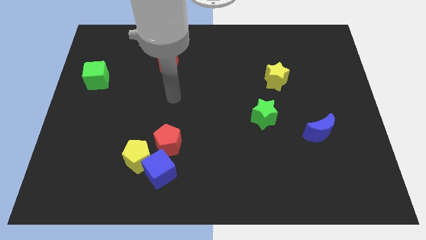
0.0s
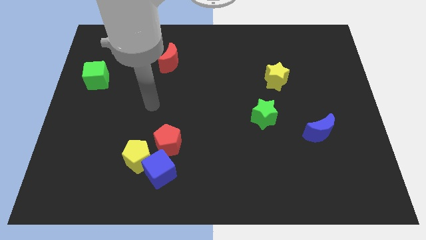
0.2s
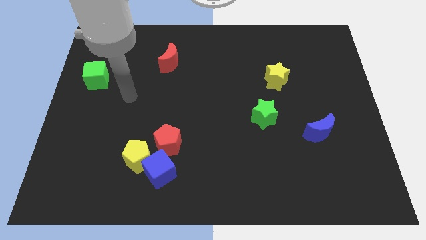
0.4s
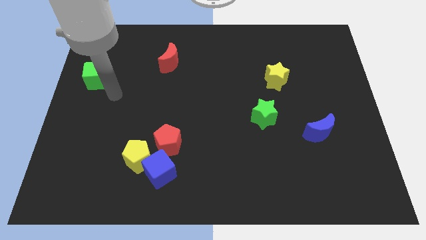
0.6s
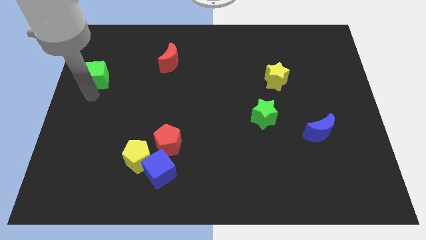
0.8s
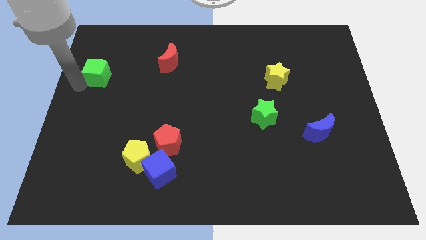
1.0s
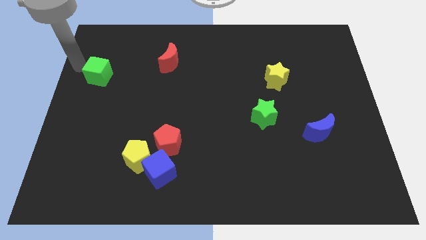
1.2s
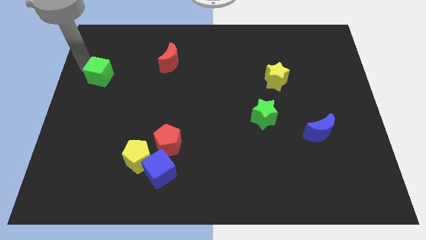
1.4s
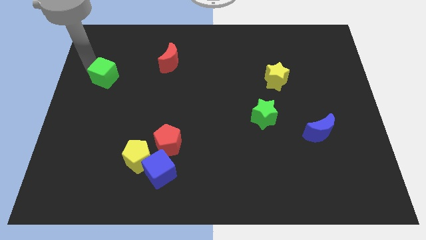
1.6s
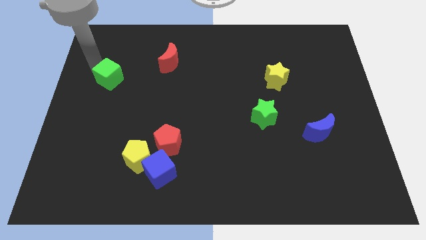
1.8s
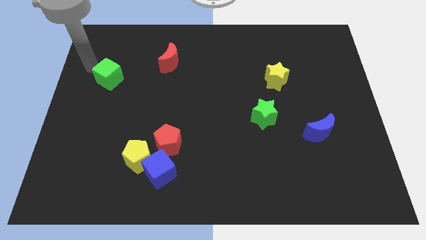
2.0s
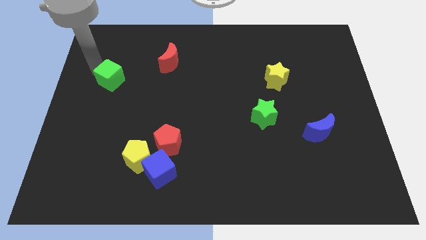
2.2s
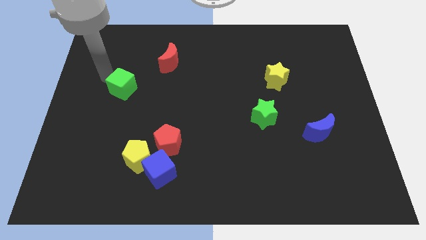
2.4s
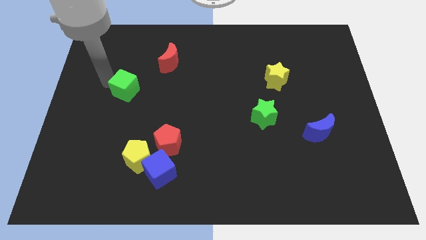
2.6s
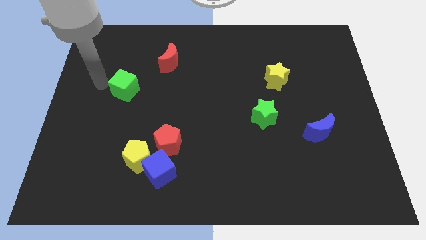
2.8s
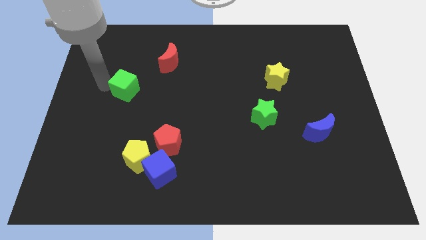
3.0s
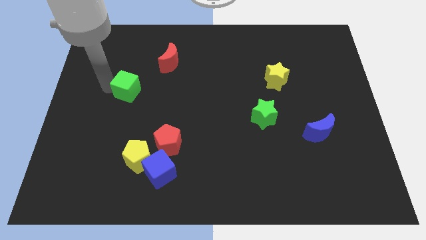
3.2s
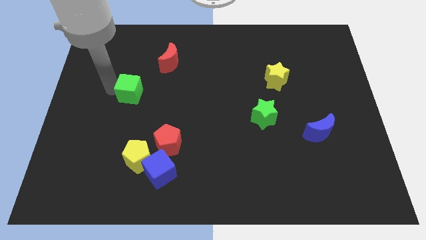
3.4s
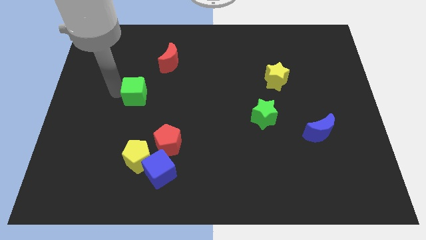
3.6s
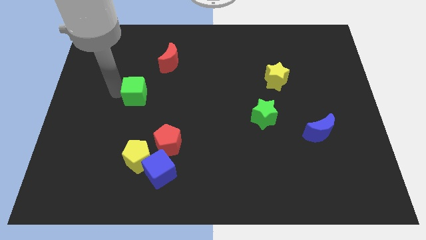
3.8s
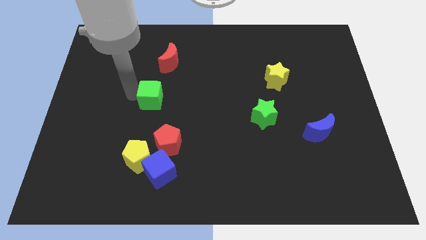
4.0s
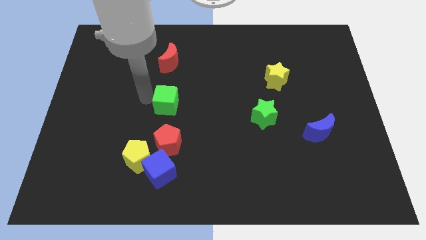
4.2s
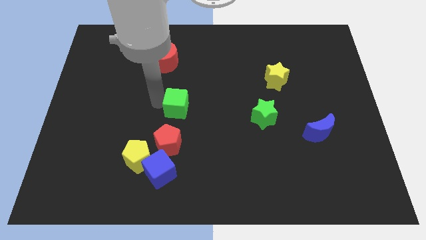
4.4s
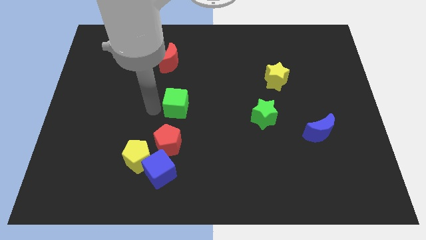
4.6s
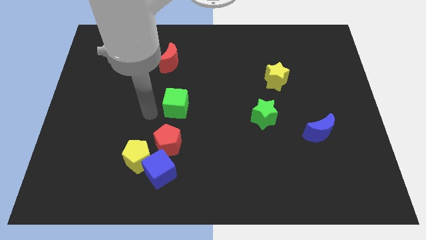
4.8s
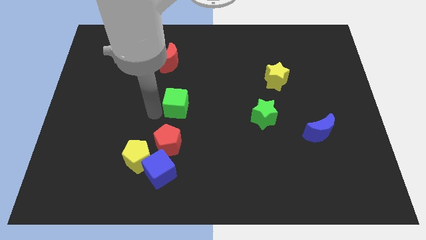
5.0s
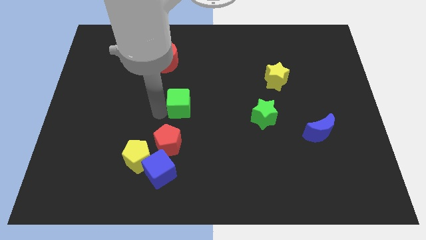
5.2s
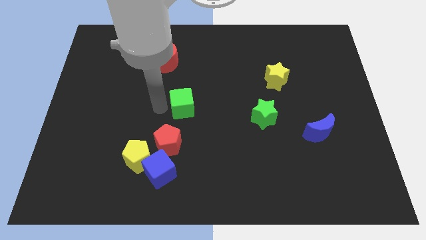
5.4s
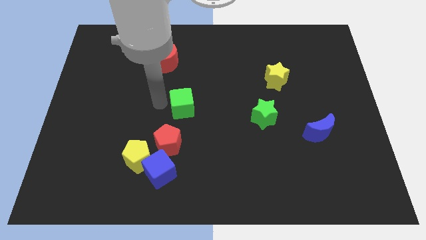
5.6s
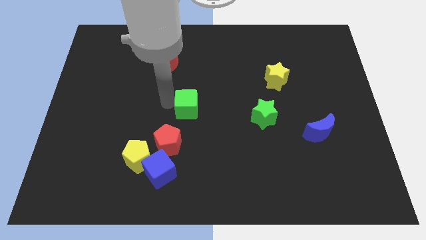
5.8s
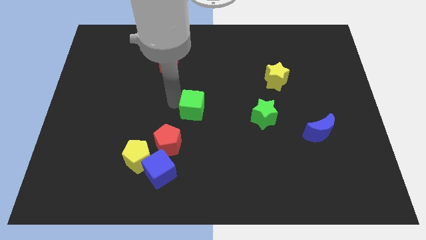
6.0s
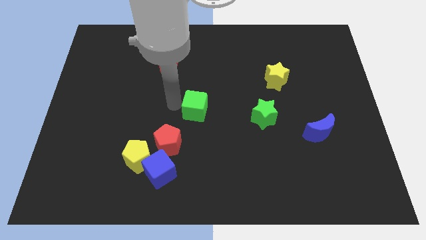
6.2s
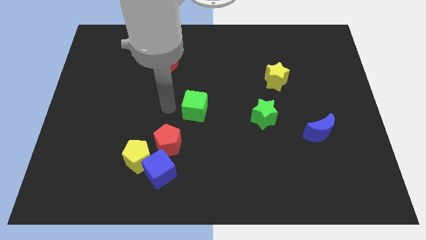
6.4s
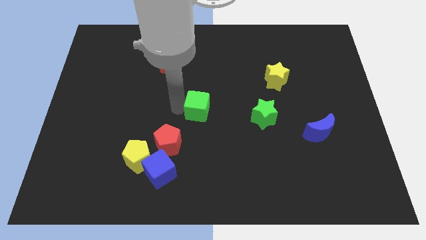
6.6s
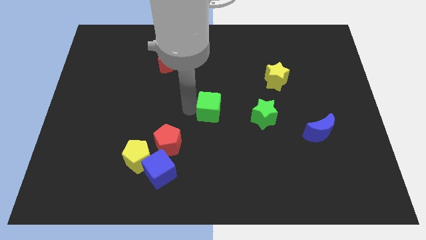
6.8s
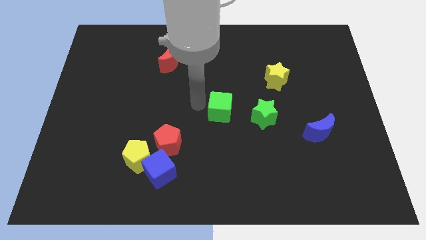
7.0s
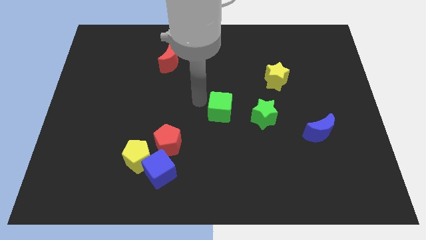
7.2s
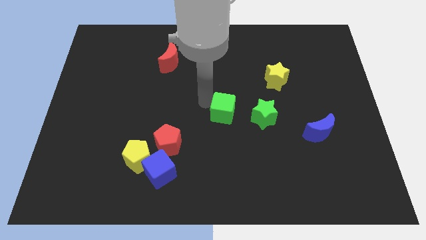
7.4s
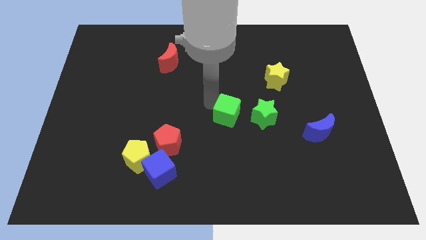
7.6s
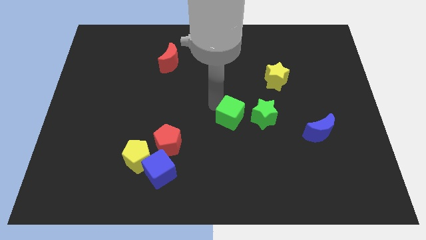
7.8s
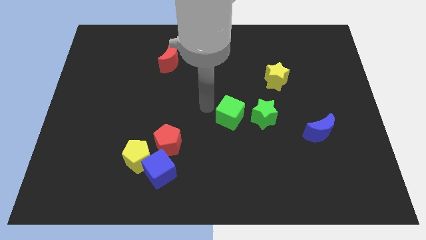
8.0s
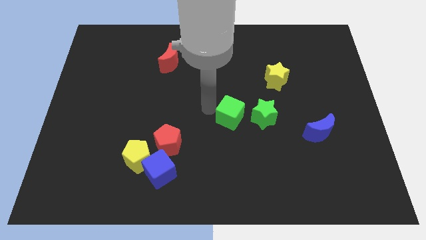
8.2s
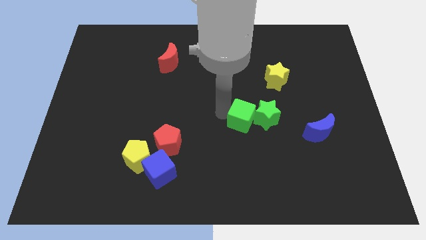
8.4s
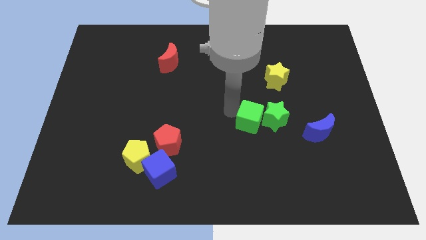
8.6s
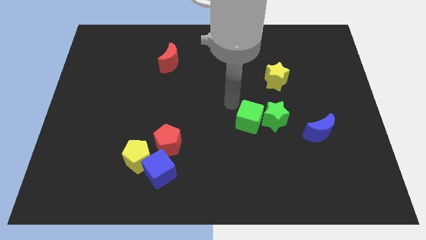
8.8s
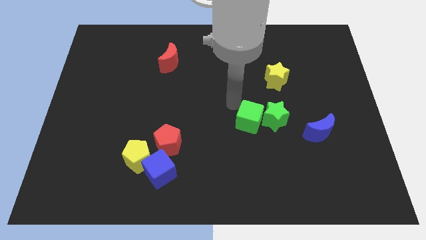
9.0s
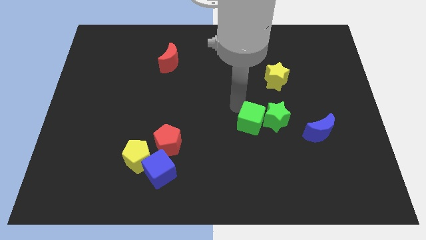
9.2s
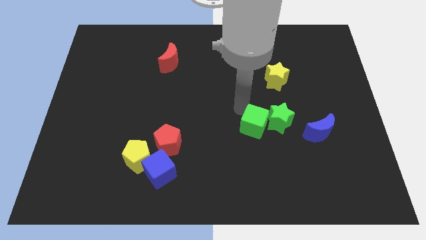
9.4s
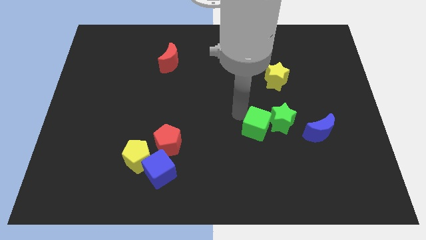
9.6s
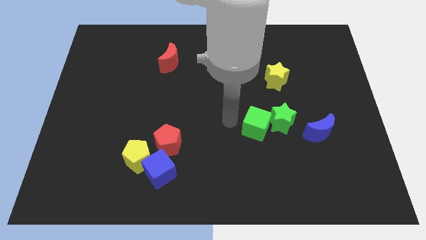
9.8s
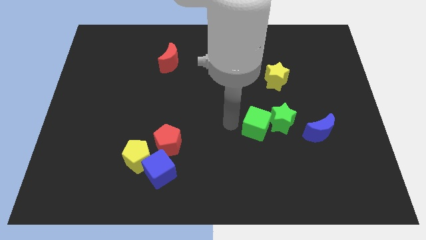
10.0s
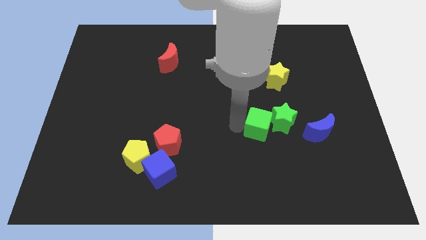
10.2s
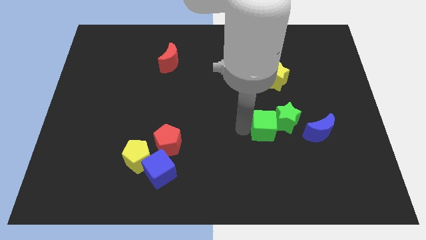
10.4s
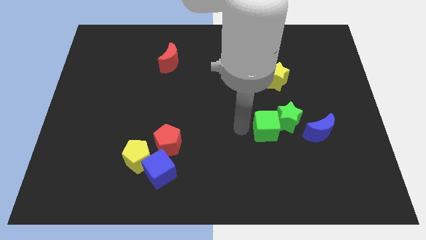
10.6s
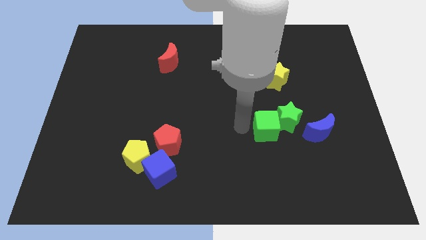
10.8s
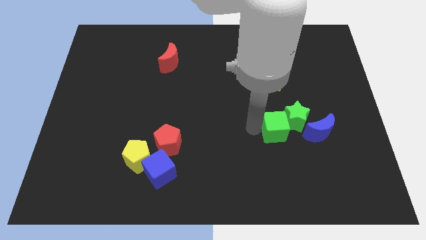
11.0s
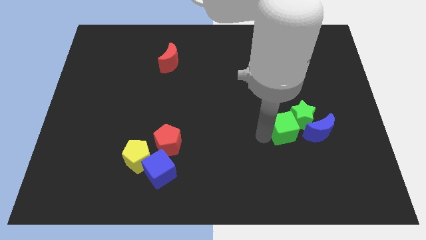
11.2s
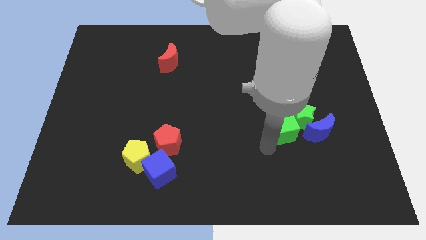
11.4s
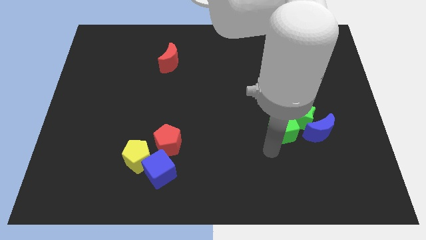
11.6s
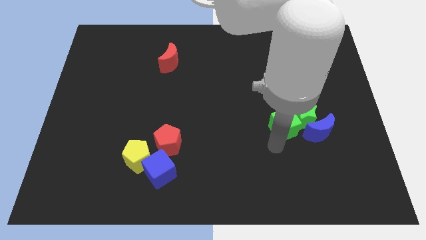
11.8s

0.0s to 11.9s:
slide the green cube diagonally up and to the left of the blue moon

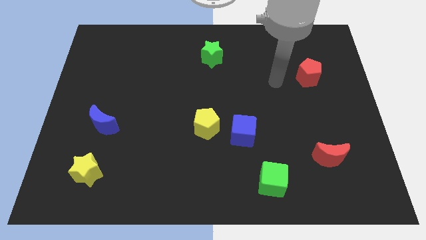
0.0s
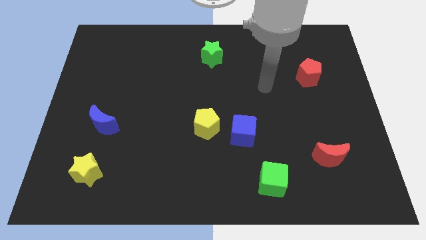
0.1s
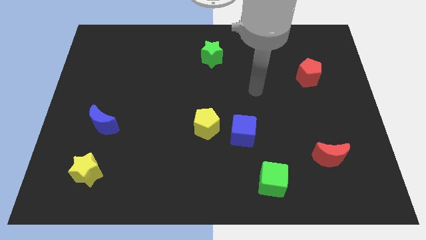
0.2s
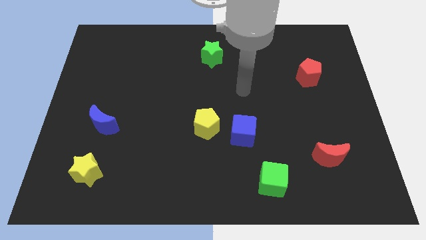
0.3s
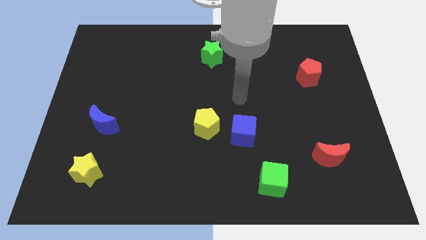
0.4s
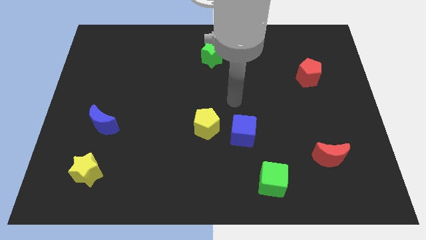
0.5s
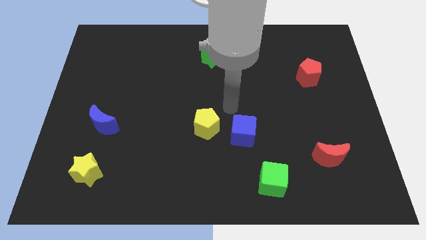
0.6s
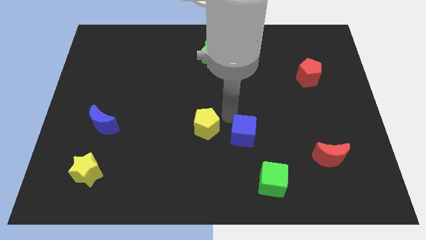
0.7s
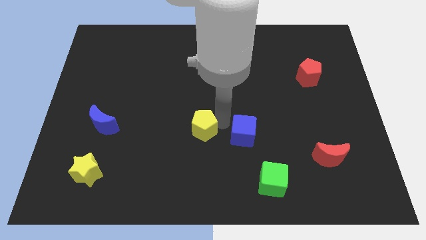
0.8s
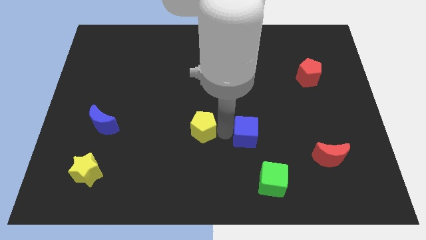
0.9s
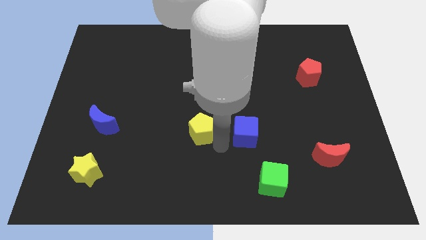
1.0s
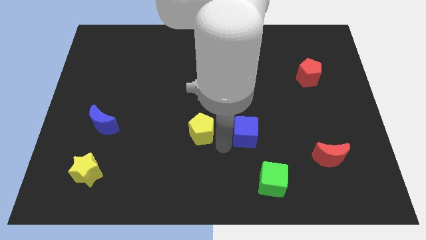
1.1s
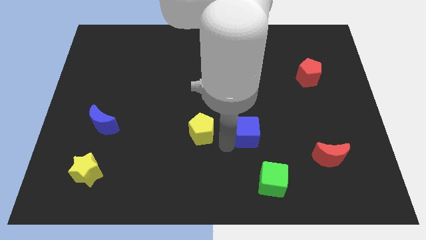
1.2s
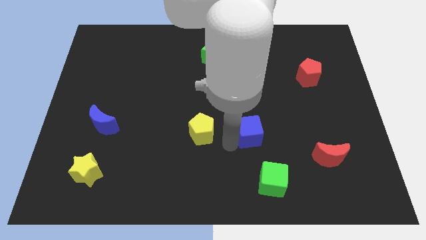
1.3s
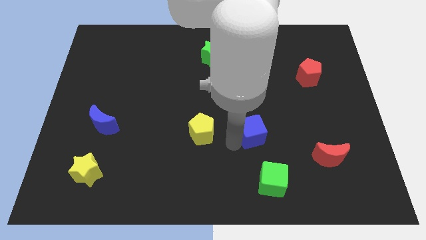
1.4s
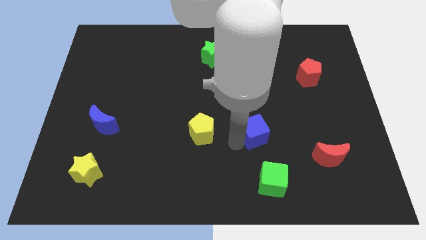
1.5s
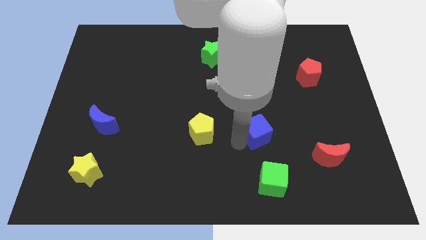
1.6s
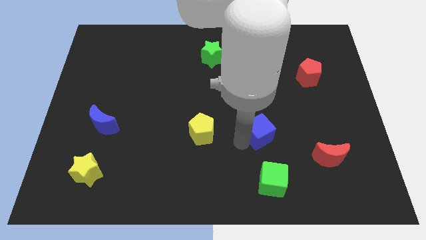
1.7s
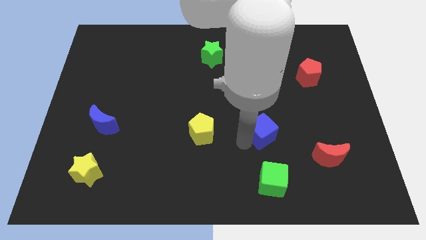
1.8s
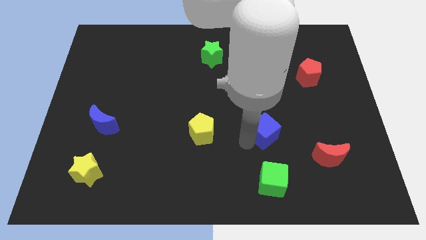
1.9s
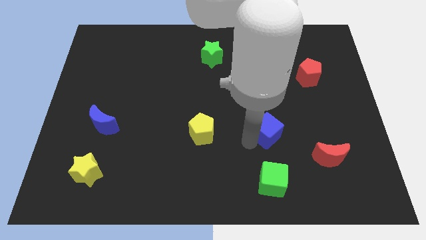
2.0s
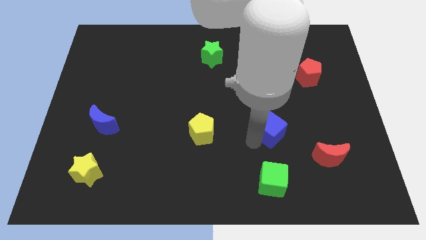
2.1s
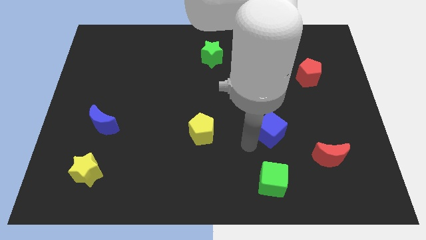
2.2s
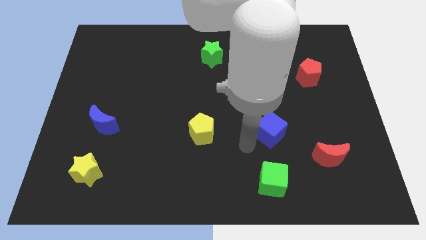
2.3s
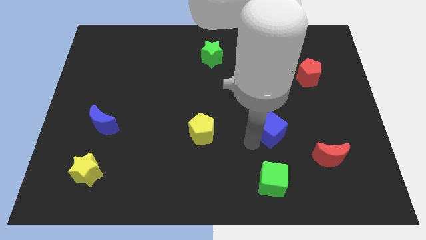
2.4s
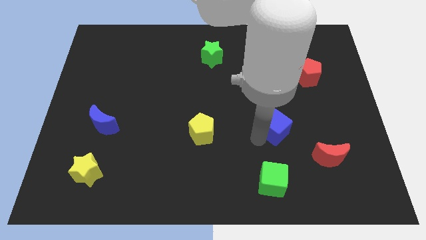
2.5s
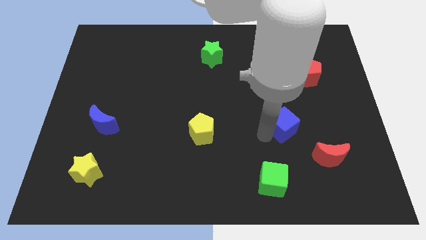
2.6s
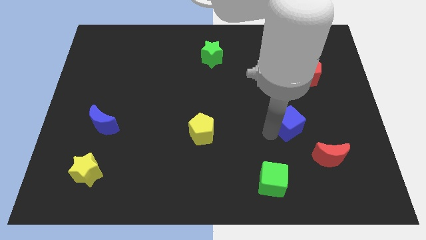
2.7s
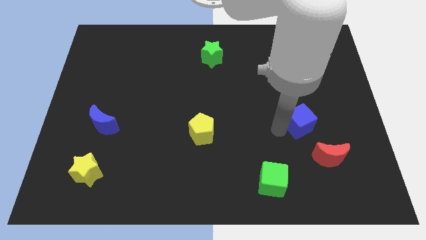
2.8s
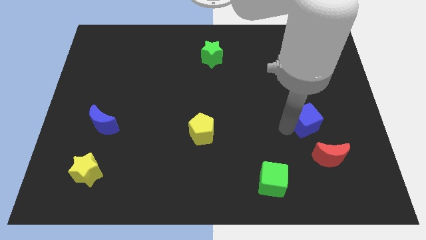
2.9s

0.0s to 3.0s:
push the blue cube to the bottom of the red pentagon
